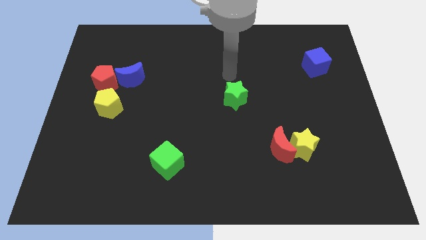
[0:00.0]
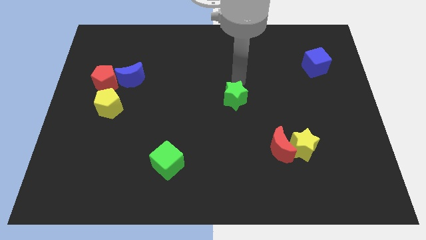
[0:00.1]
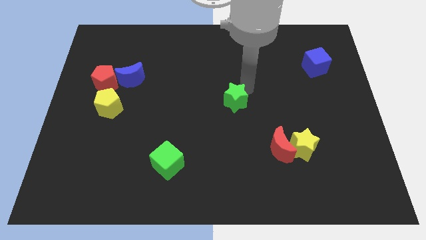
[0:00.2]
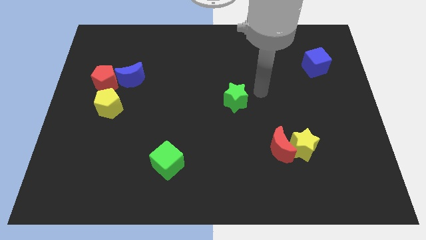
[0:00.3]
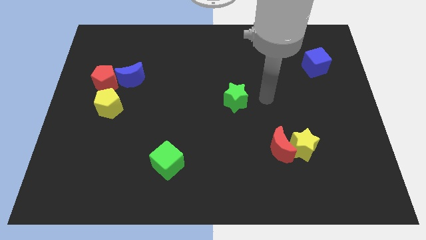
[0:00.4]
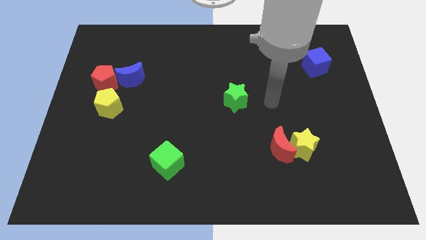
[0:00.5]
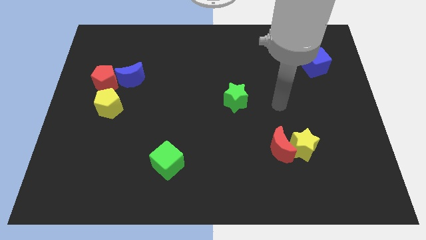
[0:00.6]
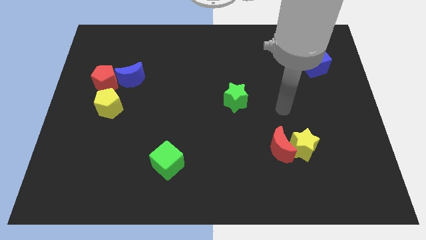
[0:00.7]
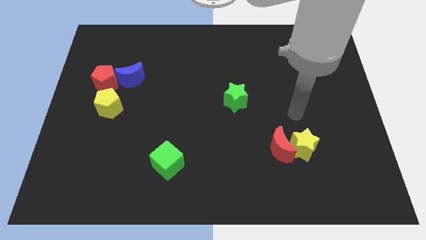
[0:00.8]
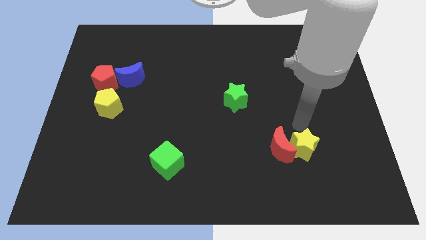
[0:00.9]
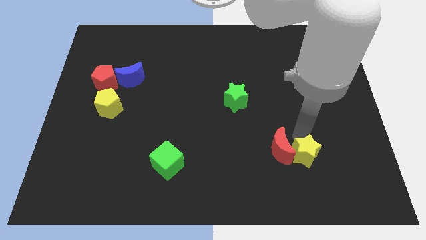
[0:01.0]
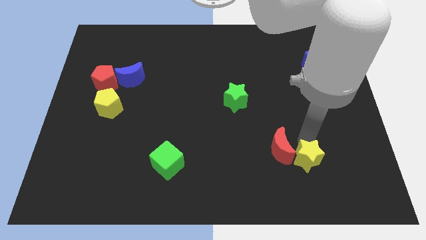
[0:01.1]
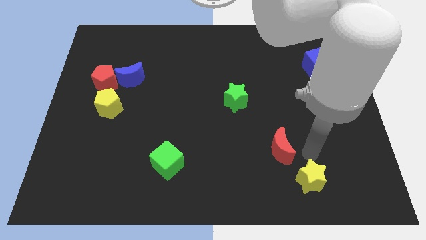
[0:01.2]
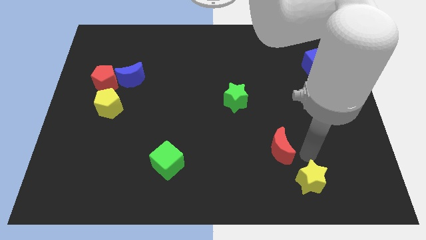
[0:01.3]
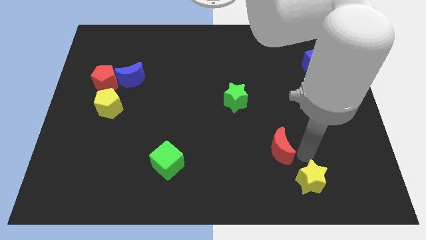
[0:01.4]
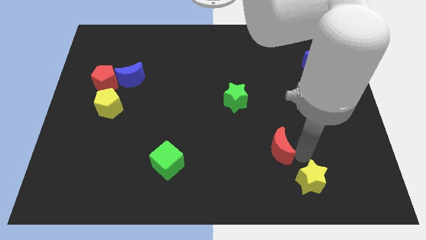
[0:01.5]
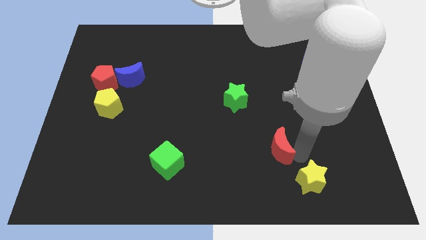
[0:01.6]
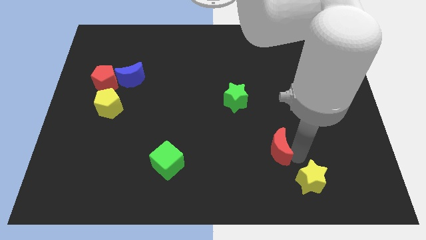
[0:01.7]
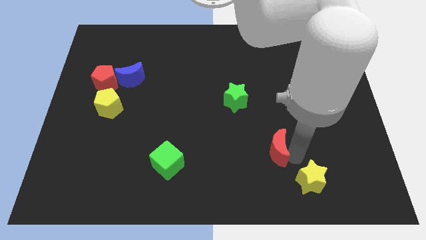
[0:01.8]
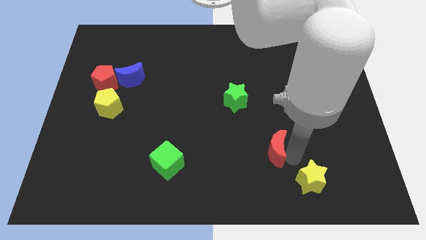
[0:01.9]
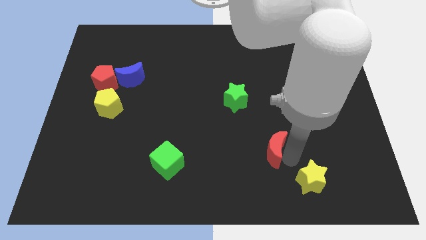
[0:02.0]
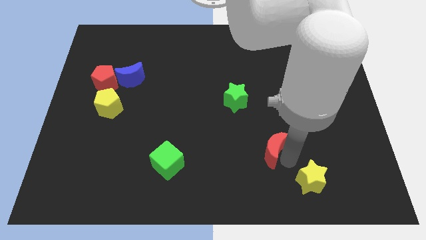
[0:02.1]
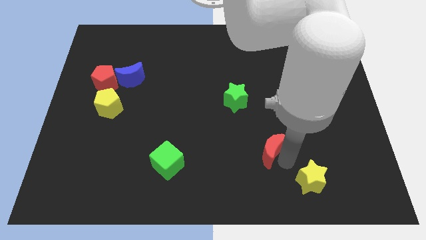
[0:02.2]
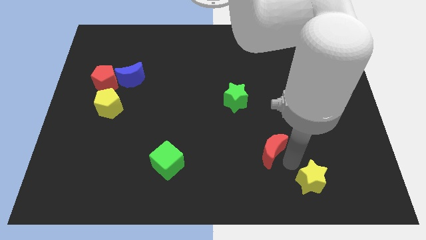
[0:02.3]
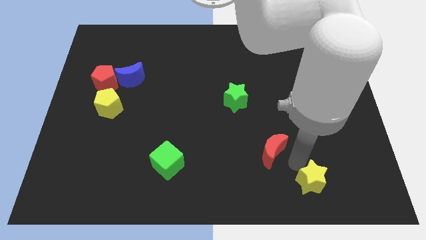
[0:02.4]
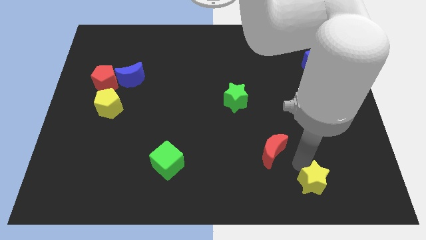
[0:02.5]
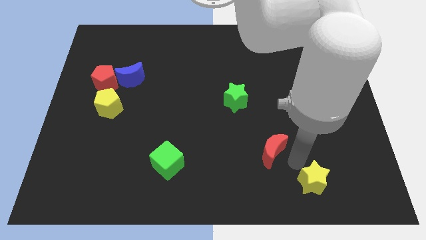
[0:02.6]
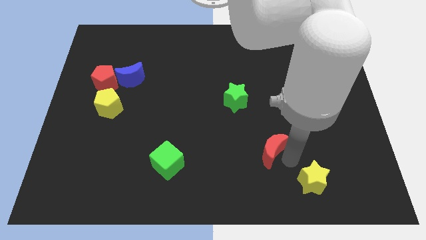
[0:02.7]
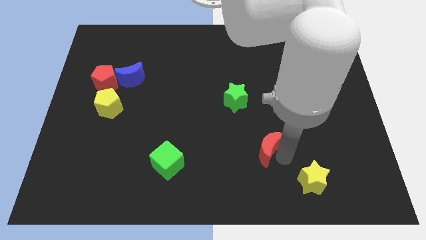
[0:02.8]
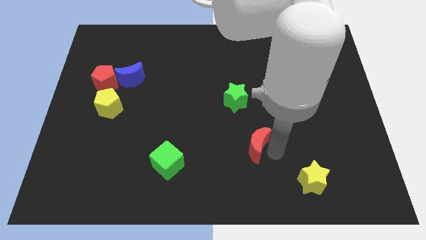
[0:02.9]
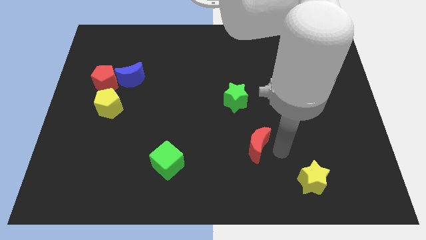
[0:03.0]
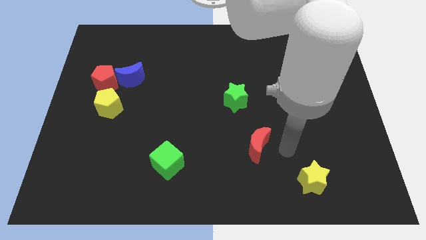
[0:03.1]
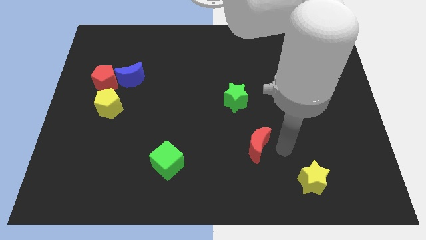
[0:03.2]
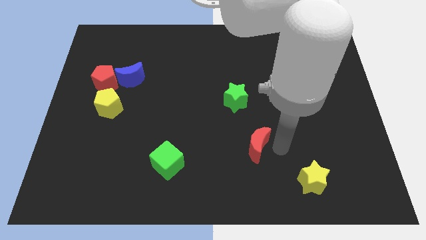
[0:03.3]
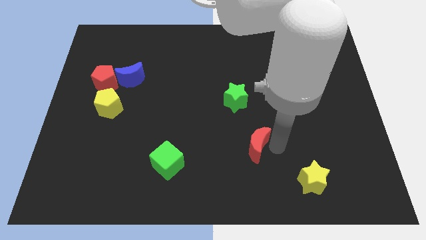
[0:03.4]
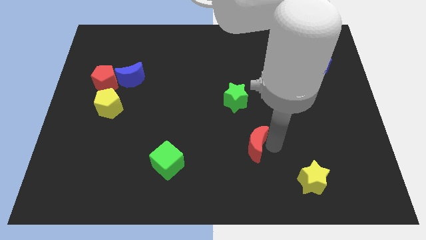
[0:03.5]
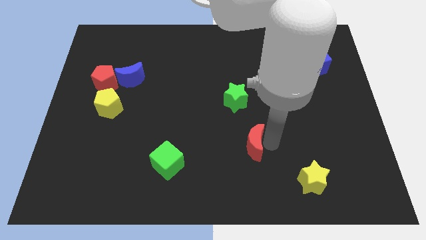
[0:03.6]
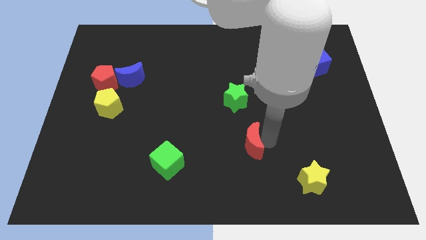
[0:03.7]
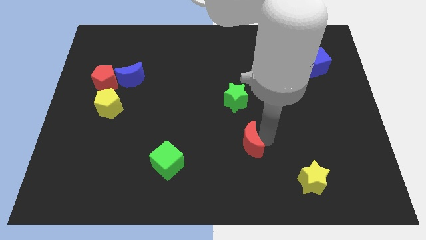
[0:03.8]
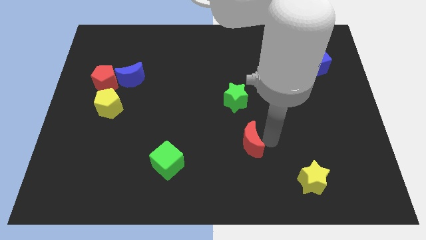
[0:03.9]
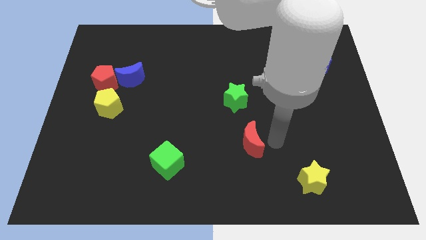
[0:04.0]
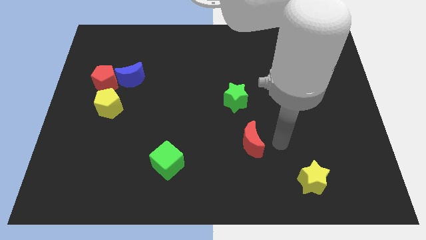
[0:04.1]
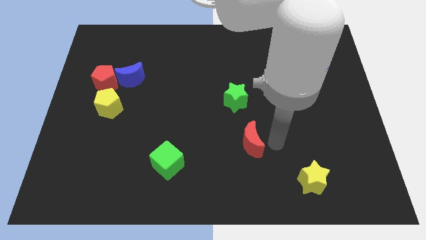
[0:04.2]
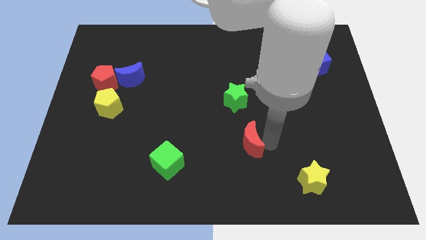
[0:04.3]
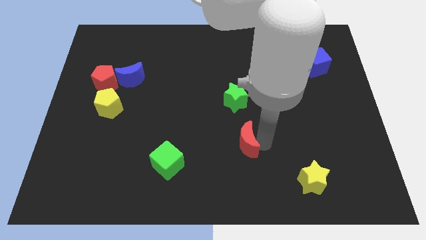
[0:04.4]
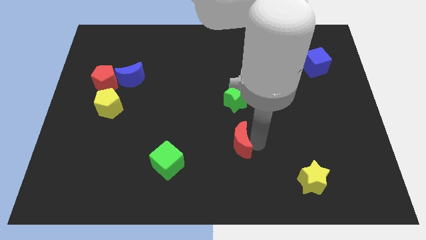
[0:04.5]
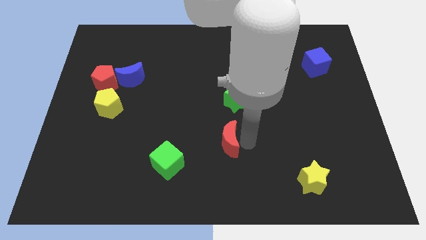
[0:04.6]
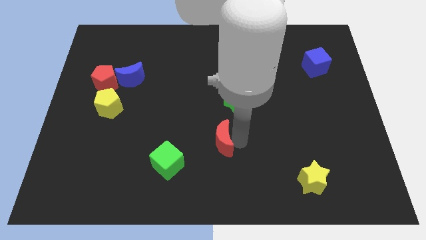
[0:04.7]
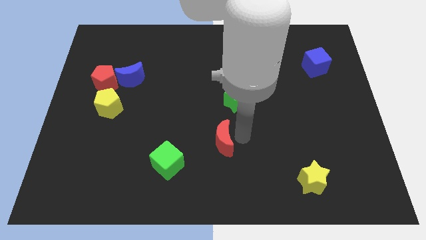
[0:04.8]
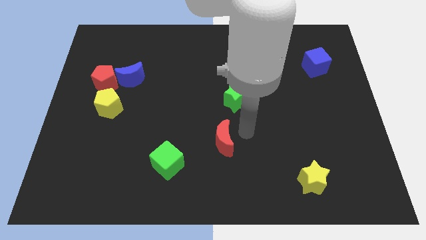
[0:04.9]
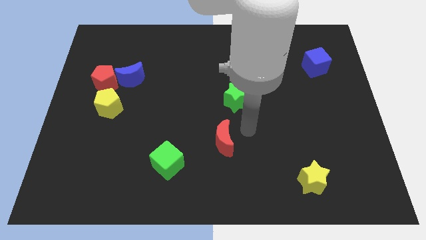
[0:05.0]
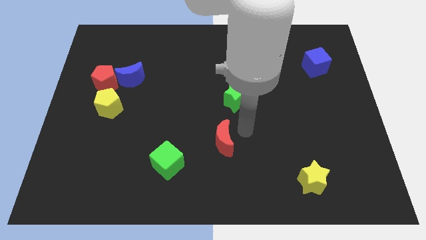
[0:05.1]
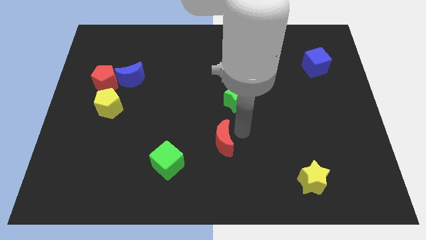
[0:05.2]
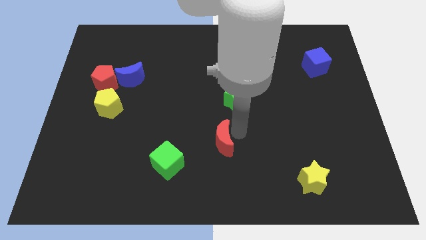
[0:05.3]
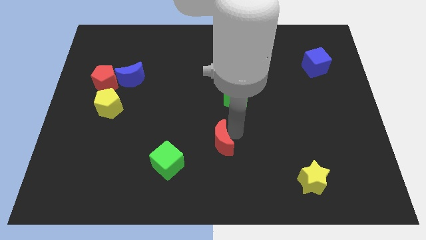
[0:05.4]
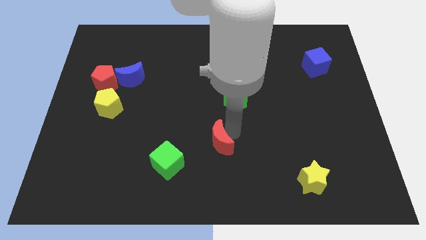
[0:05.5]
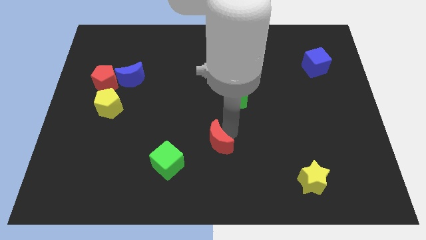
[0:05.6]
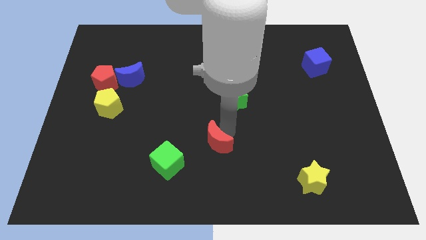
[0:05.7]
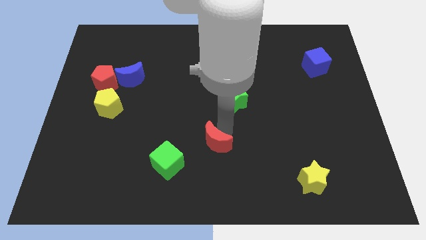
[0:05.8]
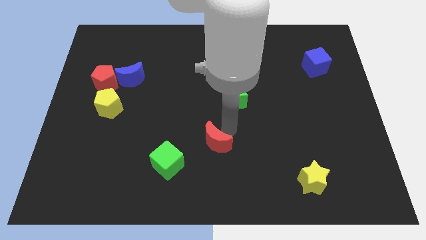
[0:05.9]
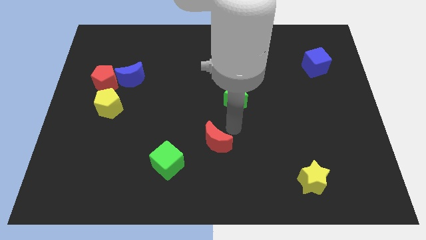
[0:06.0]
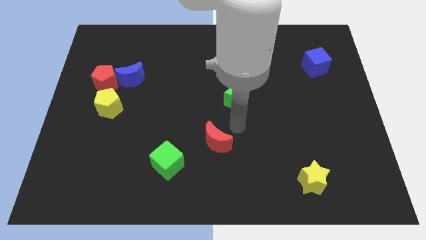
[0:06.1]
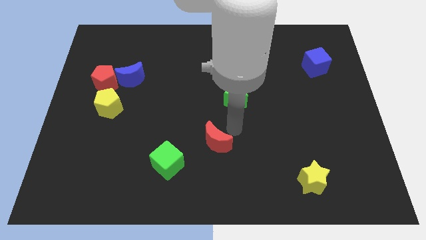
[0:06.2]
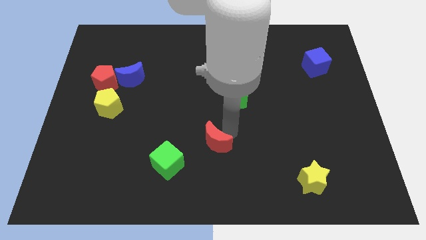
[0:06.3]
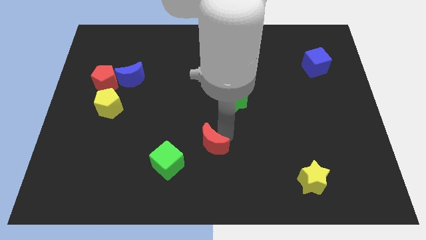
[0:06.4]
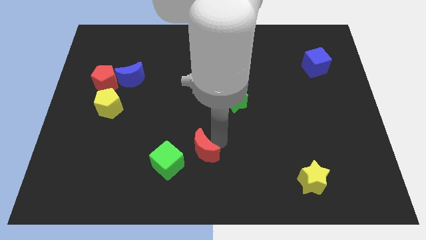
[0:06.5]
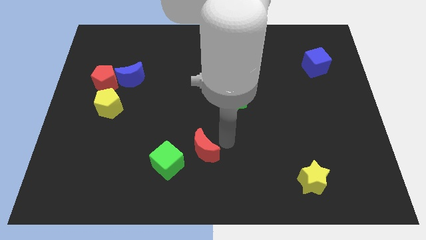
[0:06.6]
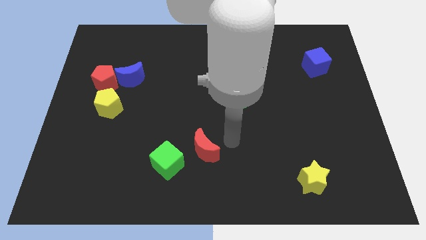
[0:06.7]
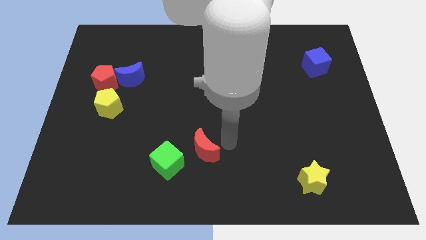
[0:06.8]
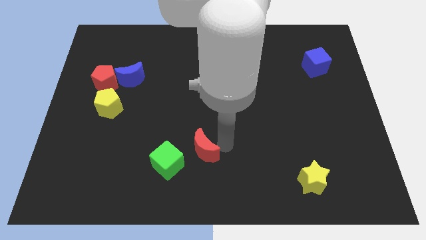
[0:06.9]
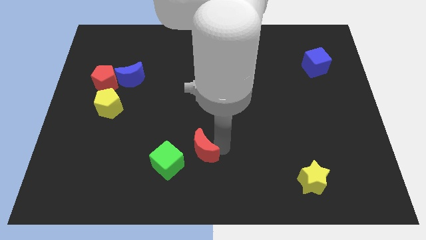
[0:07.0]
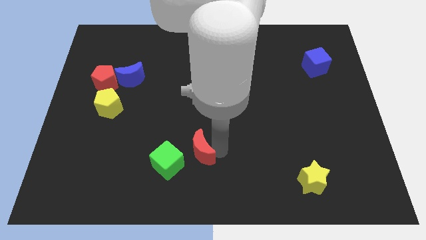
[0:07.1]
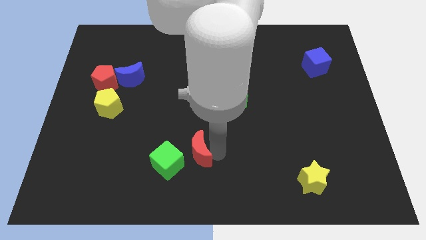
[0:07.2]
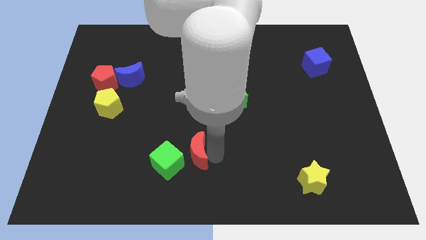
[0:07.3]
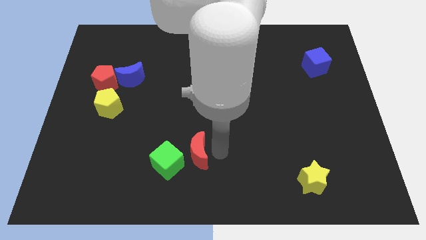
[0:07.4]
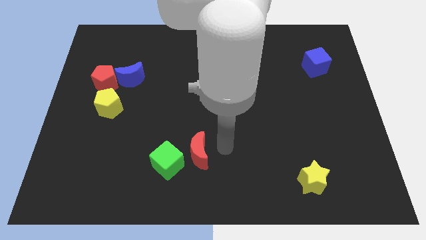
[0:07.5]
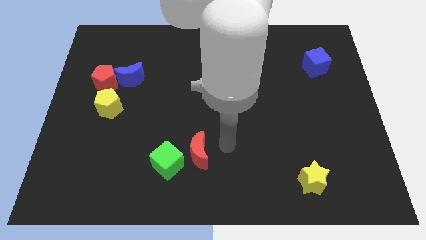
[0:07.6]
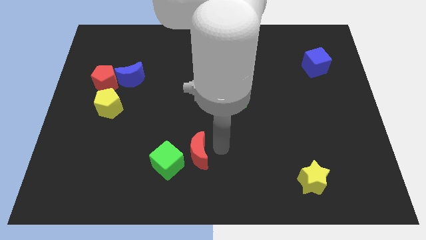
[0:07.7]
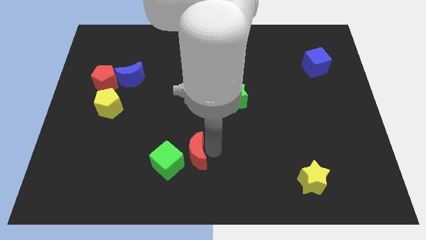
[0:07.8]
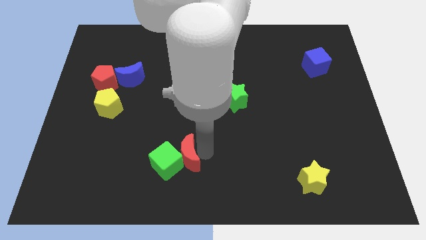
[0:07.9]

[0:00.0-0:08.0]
push the red moon close to the green cube
